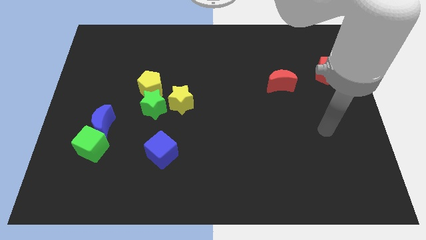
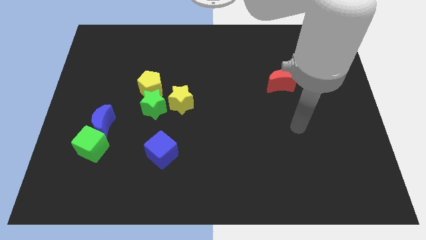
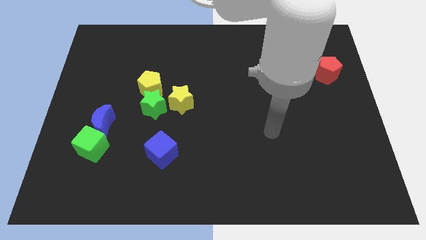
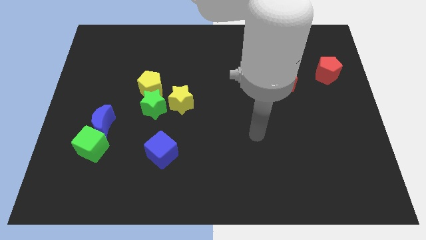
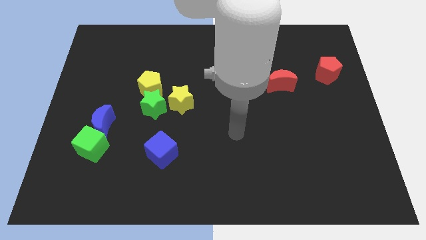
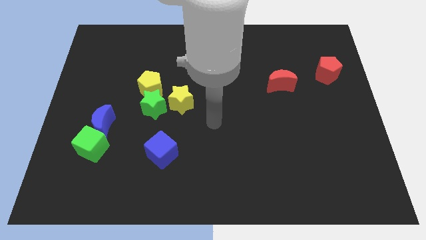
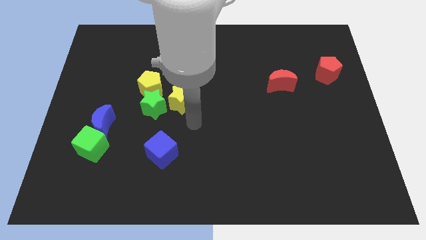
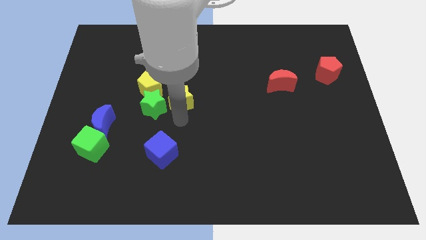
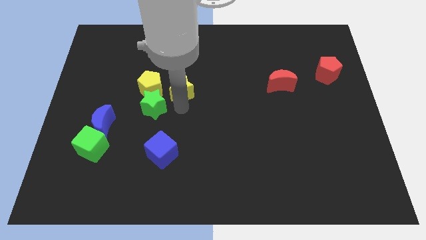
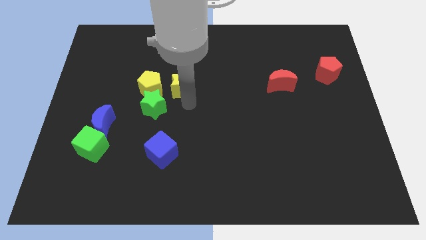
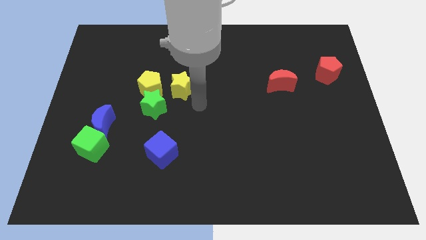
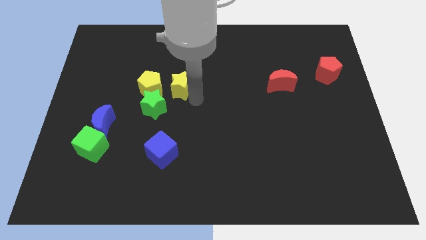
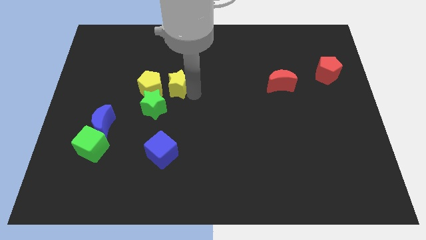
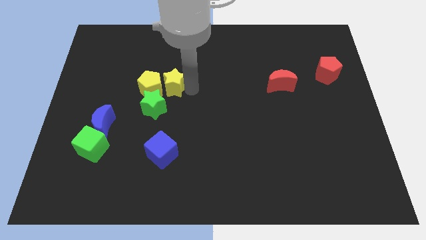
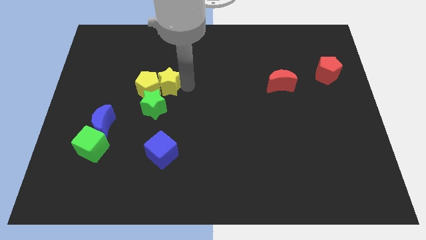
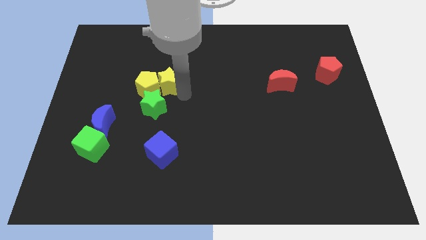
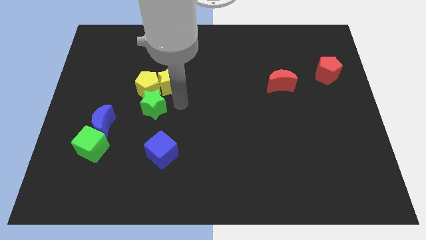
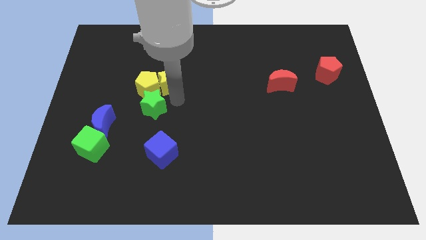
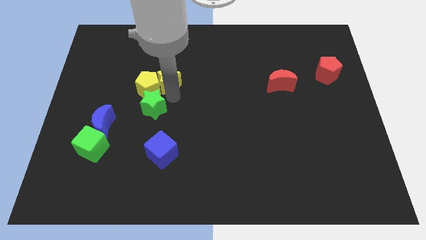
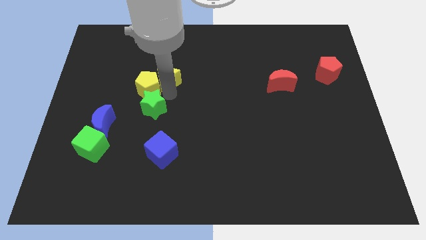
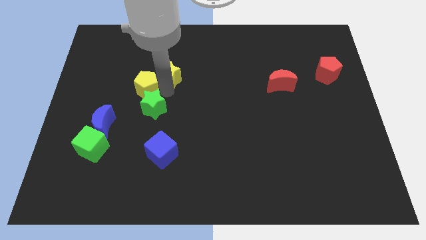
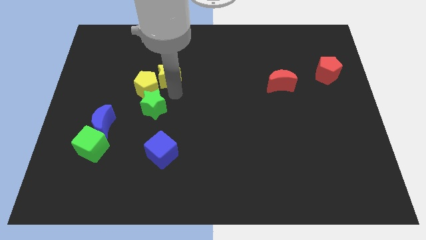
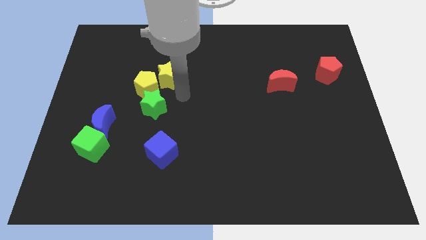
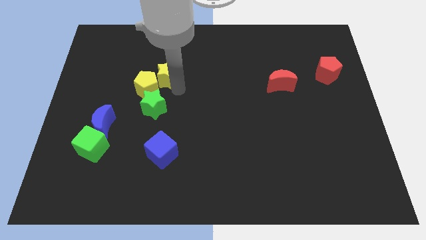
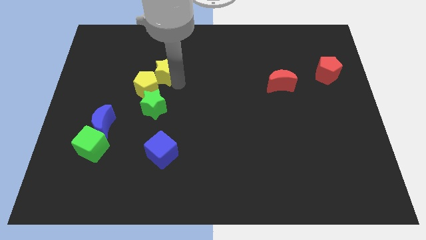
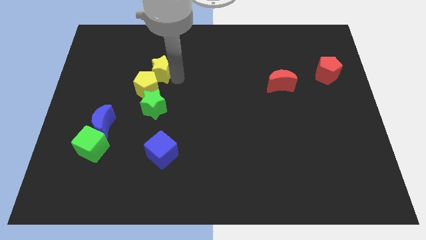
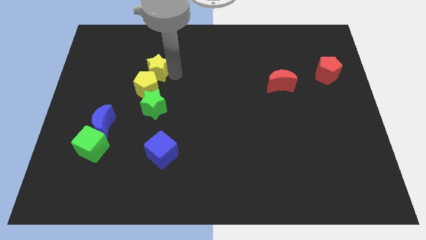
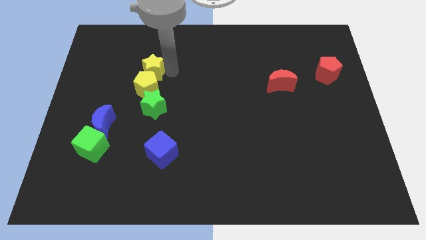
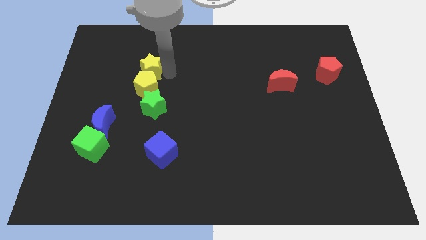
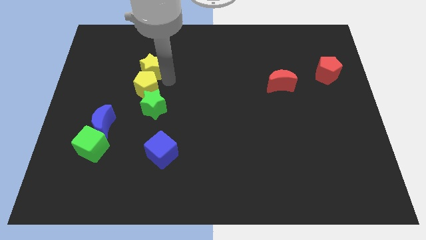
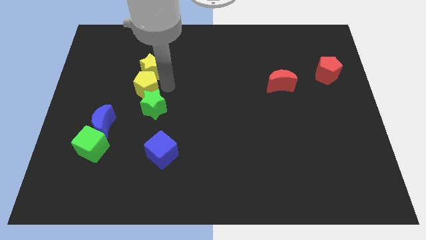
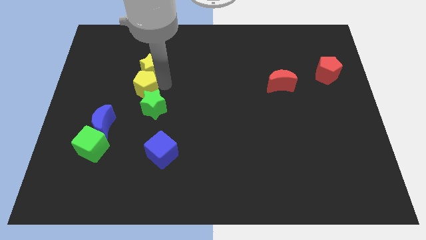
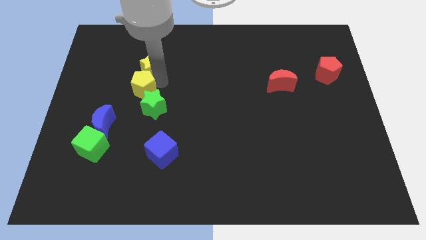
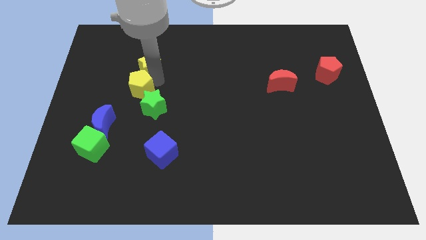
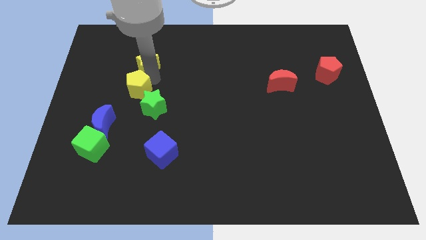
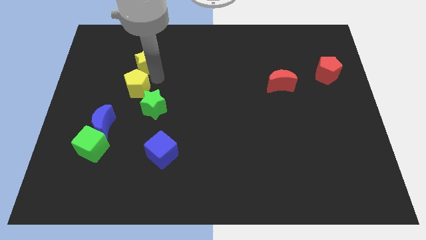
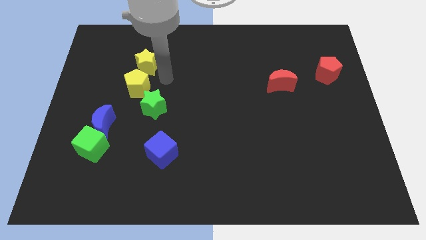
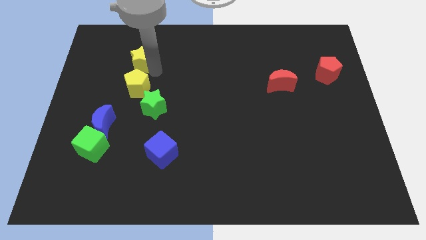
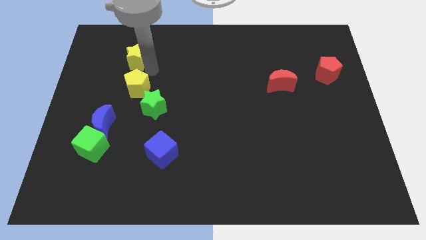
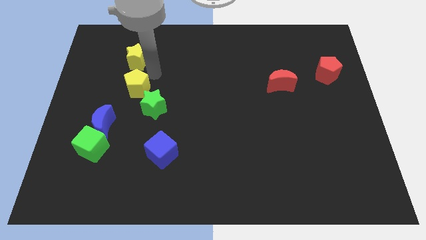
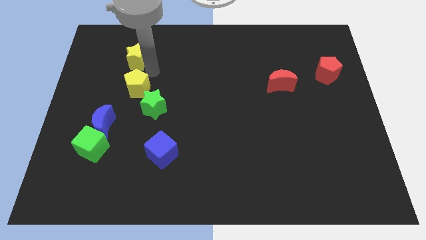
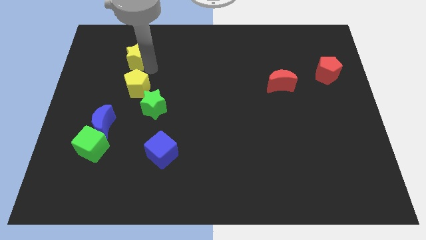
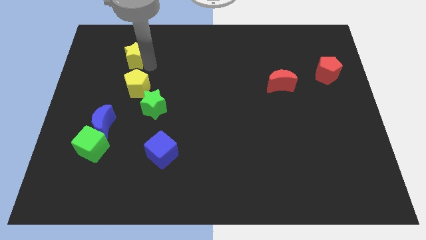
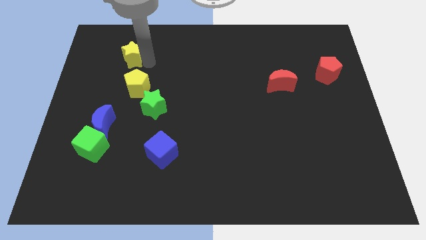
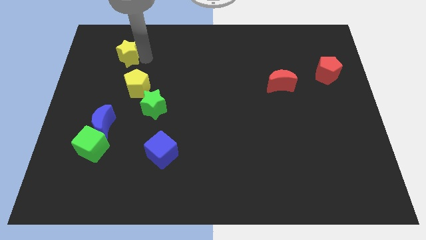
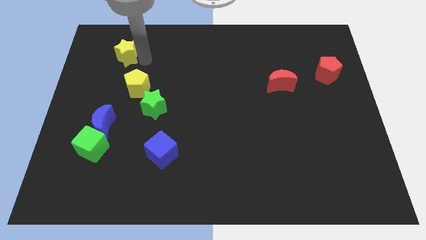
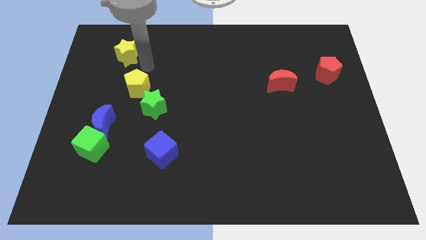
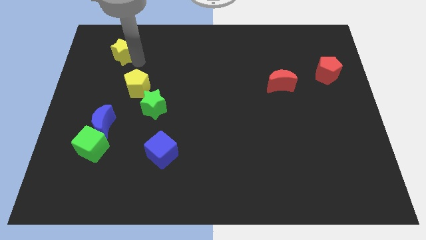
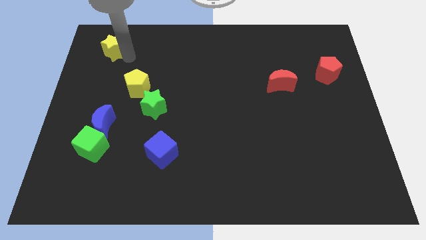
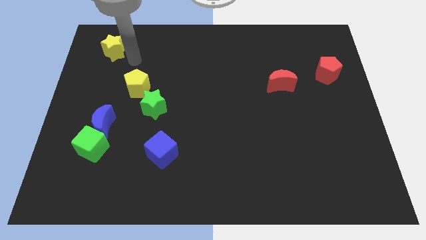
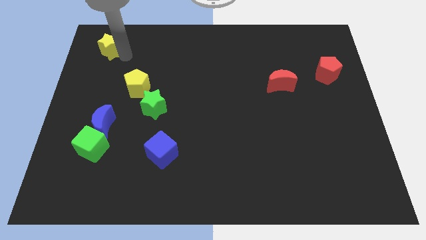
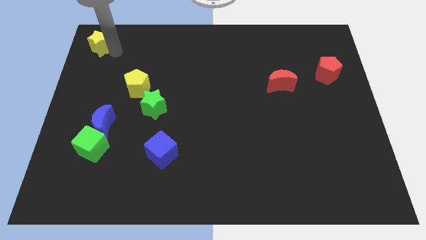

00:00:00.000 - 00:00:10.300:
put the yellow star to the top left of the board

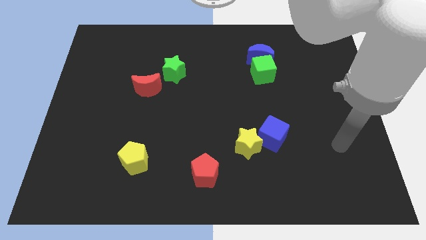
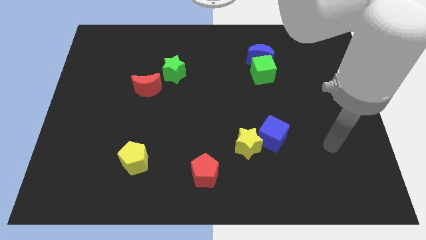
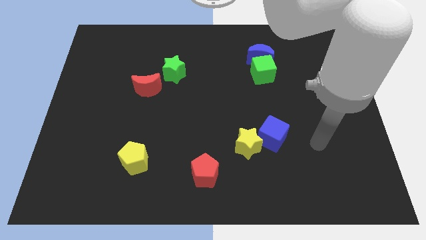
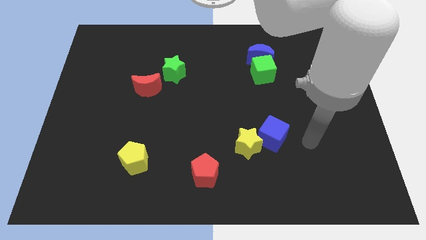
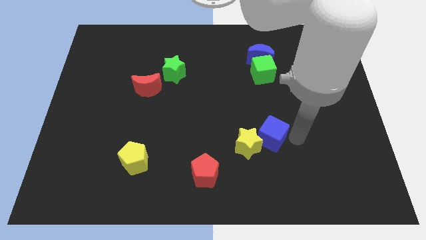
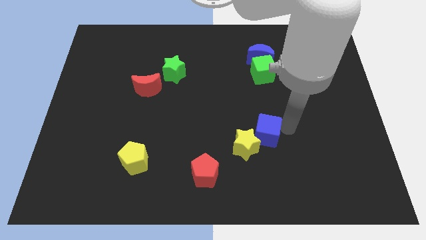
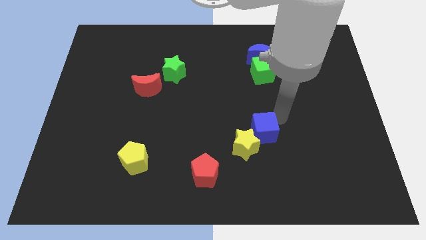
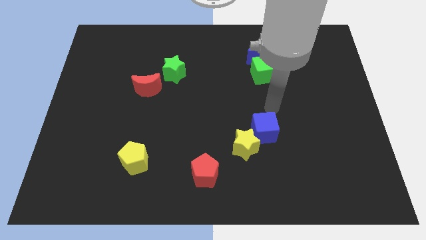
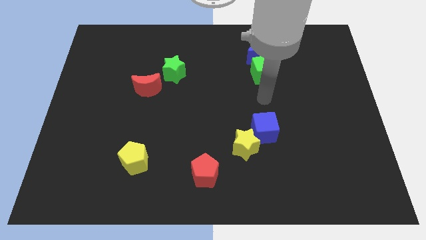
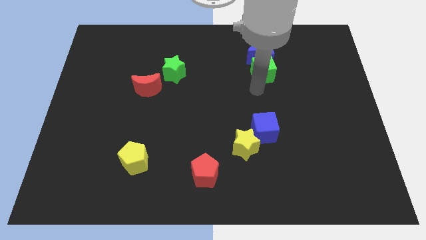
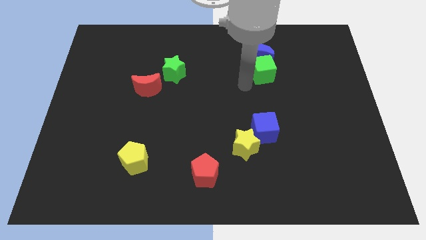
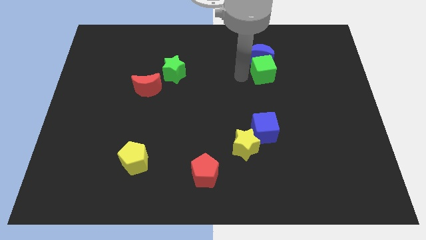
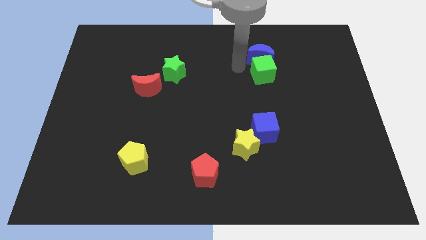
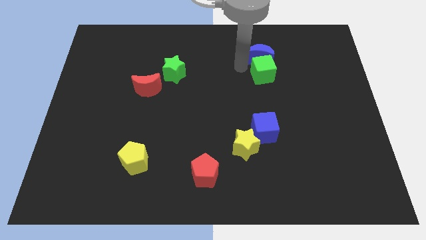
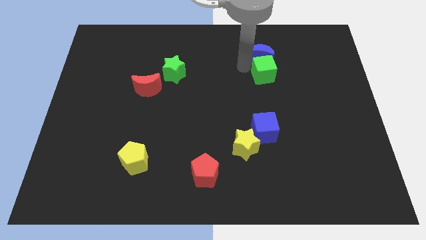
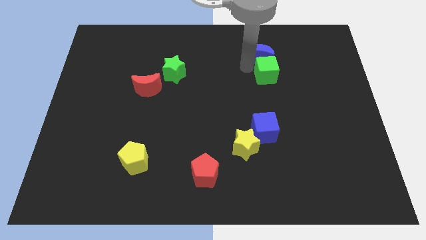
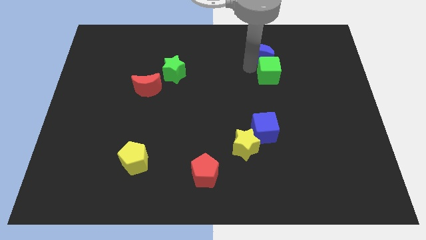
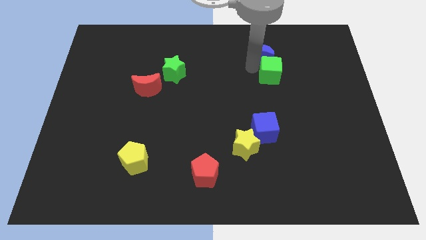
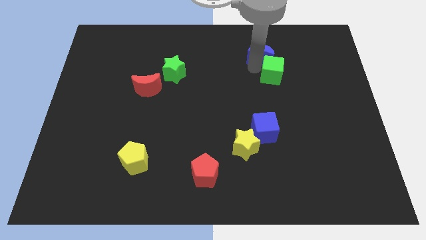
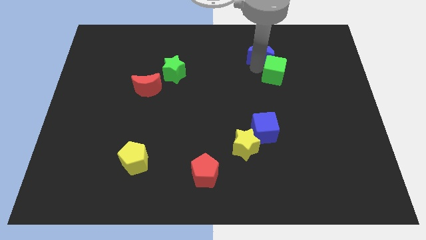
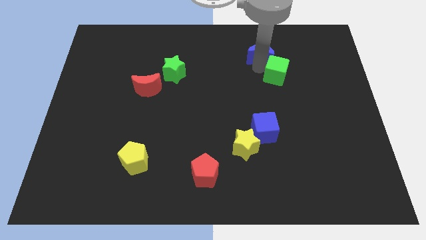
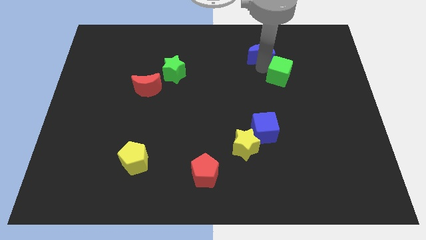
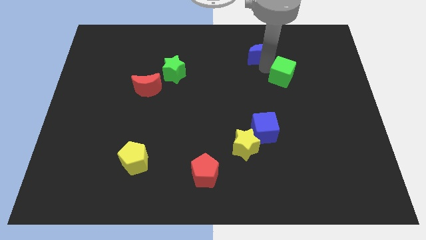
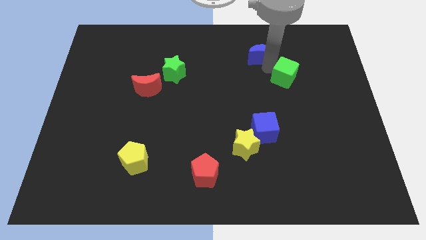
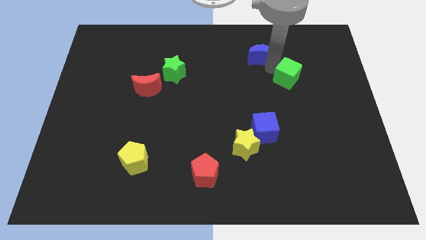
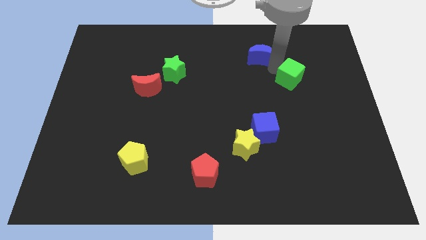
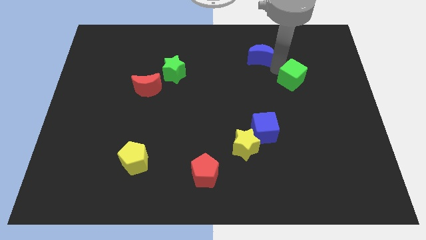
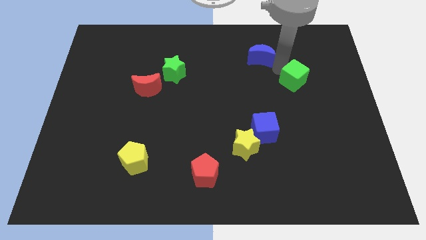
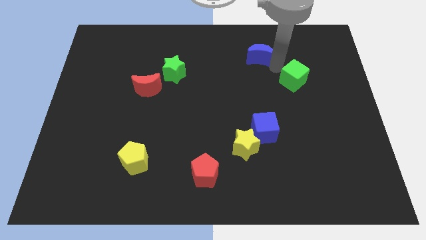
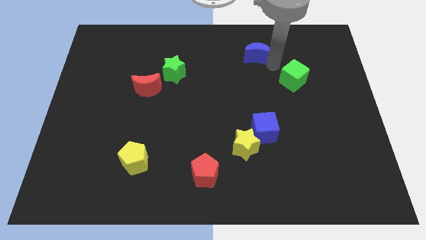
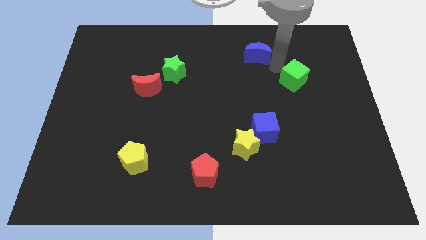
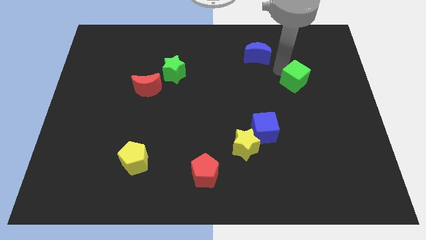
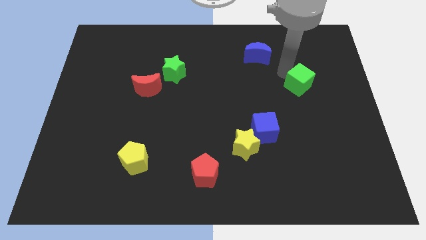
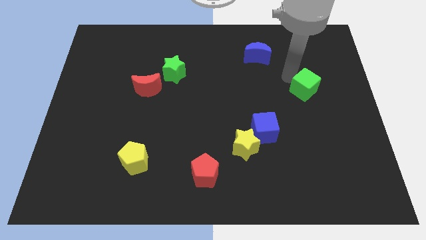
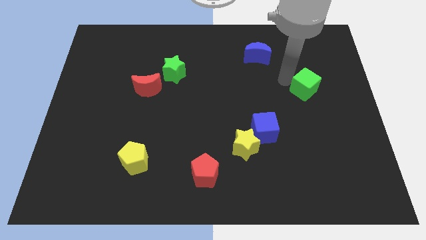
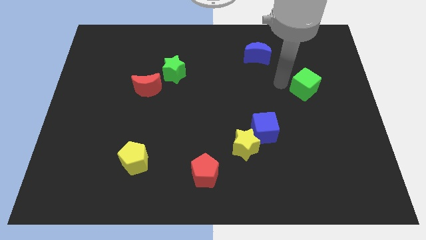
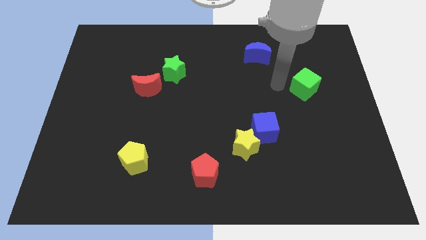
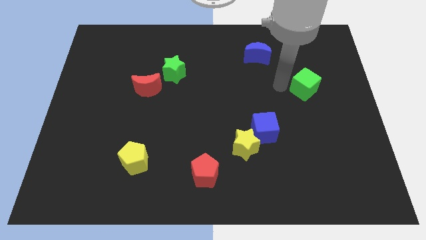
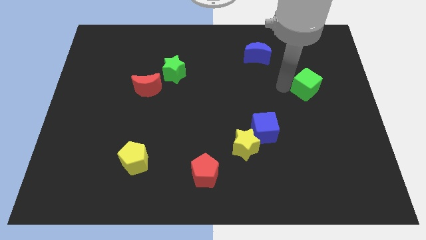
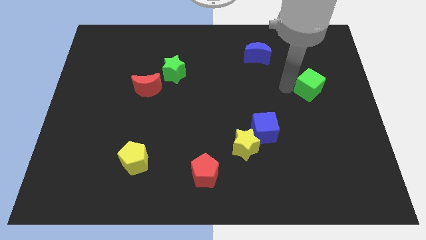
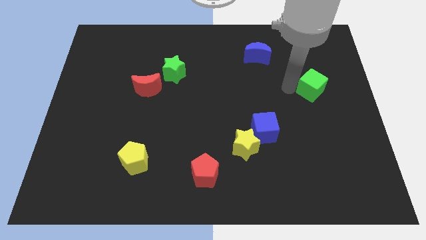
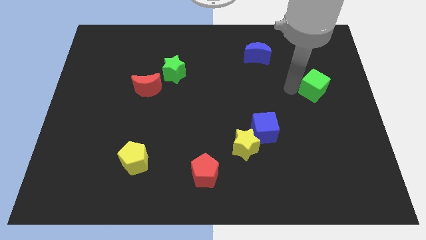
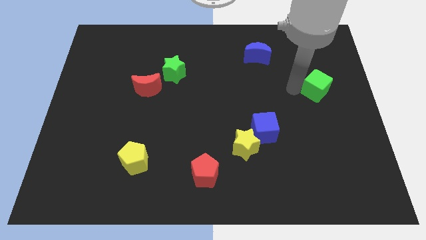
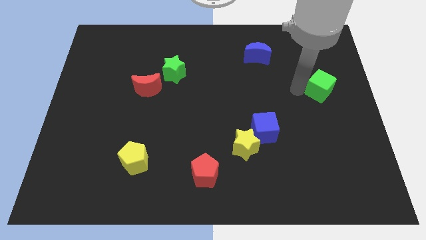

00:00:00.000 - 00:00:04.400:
push the green cube to the center right
